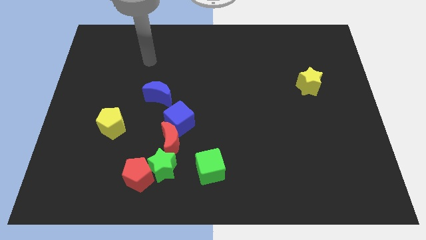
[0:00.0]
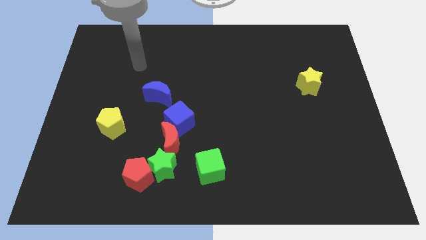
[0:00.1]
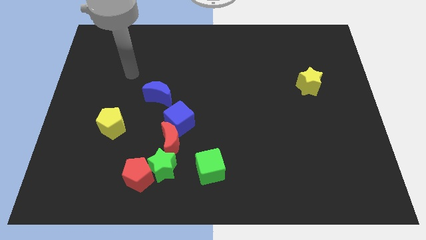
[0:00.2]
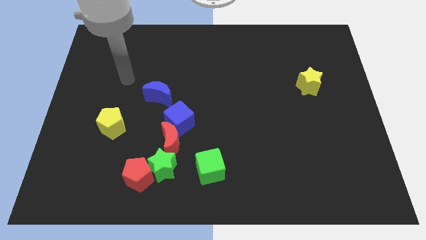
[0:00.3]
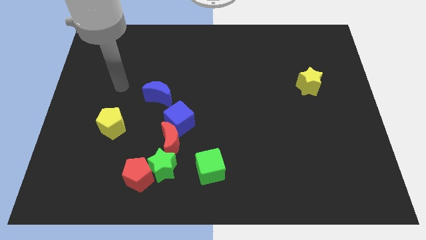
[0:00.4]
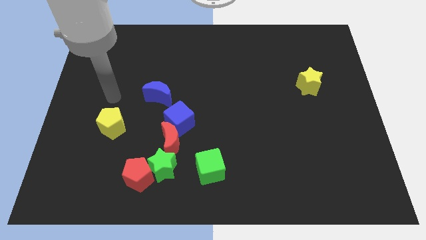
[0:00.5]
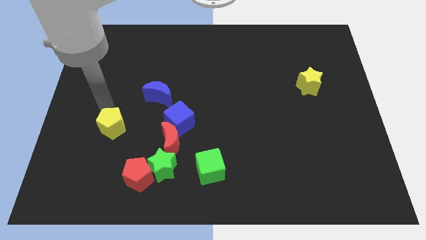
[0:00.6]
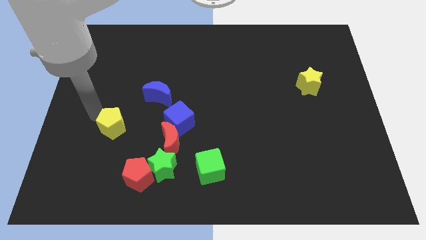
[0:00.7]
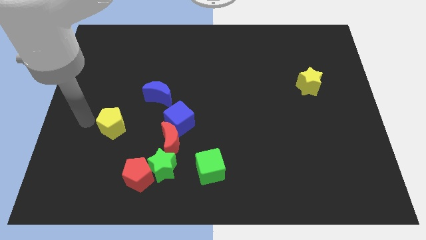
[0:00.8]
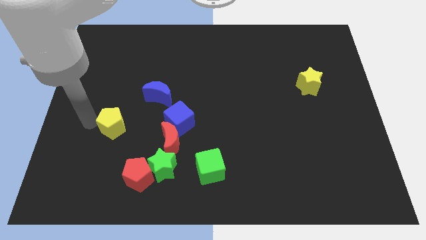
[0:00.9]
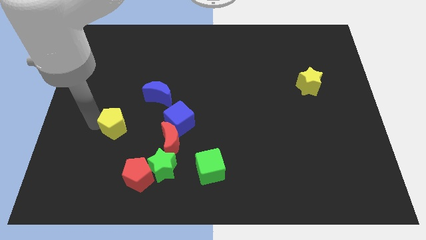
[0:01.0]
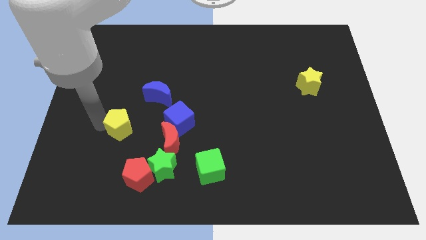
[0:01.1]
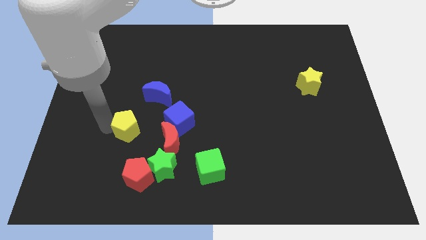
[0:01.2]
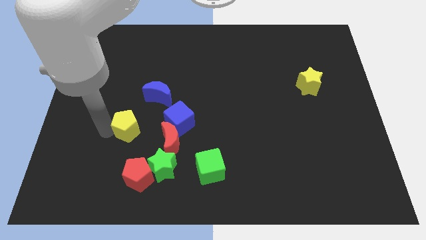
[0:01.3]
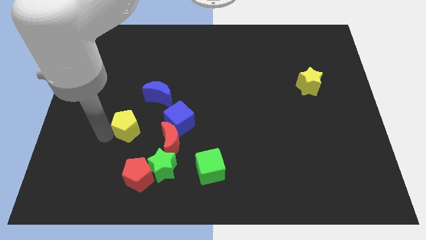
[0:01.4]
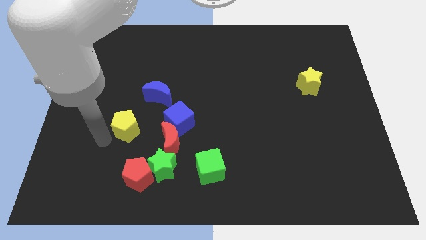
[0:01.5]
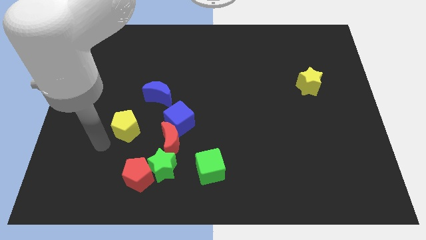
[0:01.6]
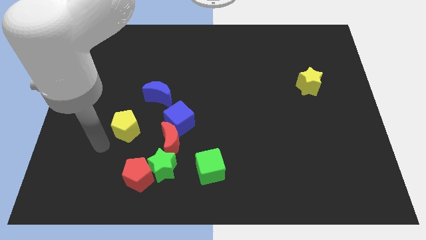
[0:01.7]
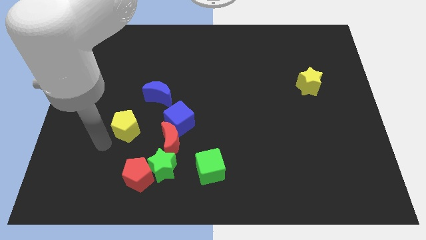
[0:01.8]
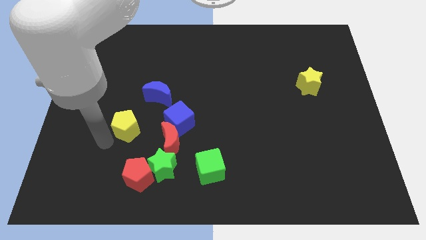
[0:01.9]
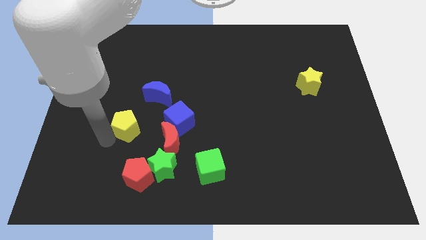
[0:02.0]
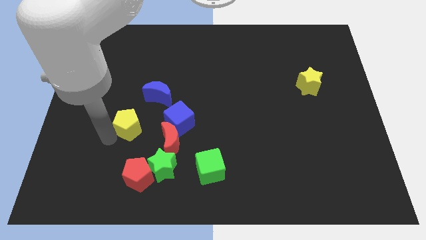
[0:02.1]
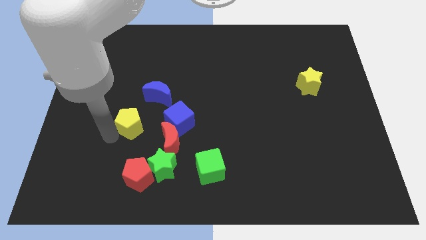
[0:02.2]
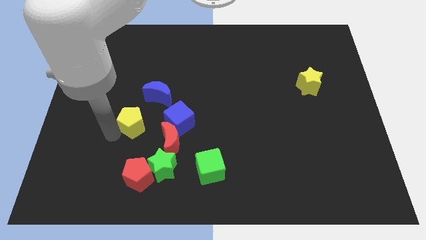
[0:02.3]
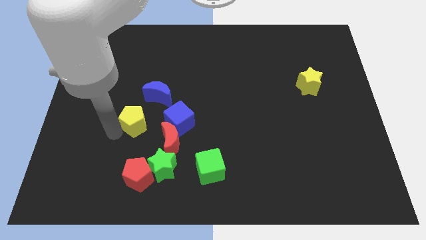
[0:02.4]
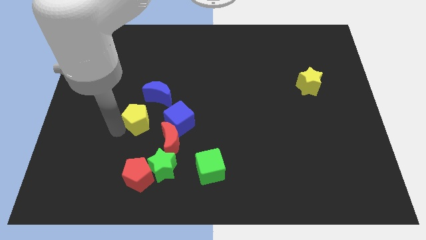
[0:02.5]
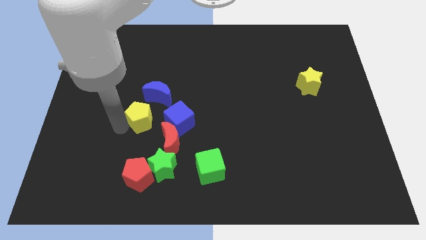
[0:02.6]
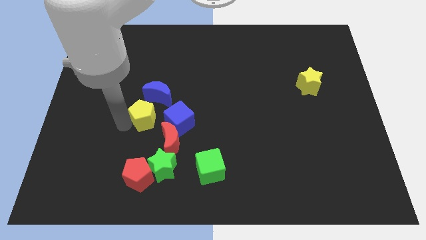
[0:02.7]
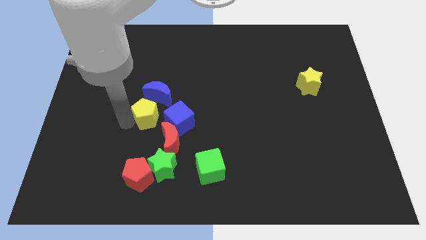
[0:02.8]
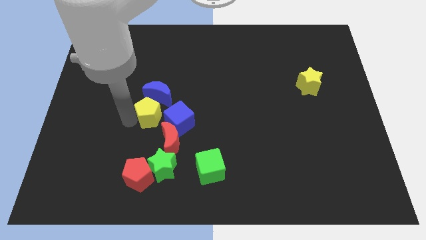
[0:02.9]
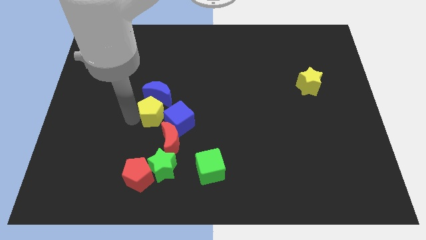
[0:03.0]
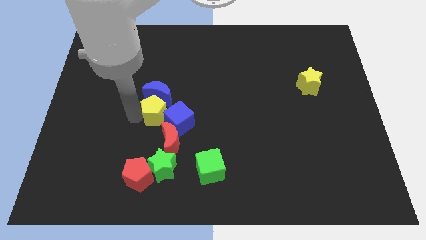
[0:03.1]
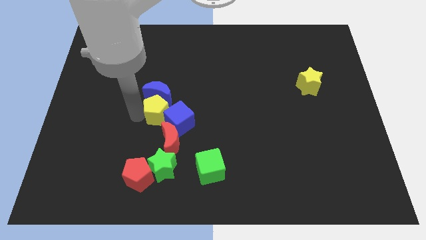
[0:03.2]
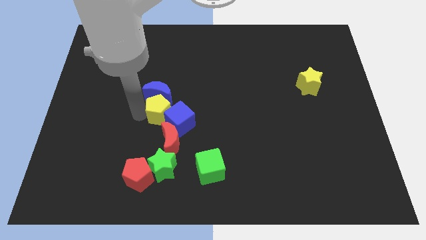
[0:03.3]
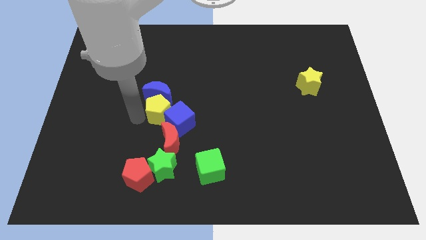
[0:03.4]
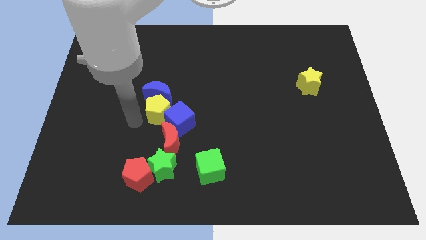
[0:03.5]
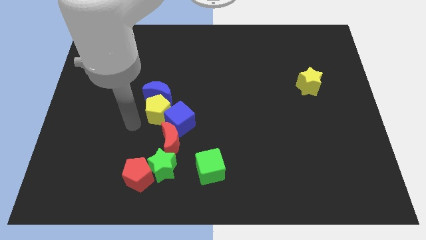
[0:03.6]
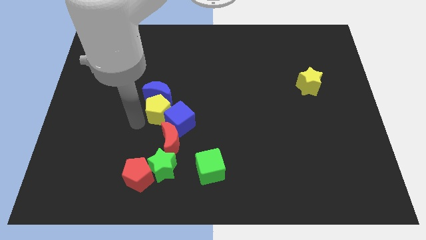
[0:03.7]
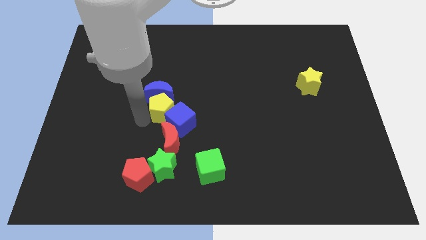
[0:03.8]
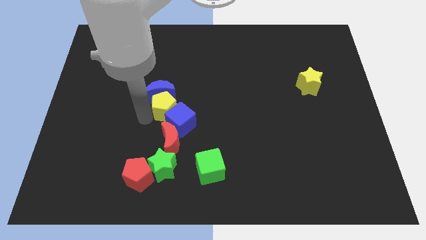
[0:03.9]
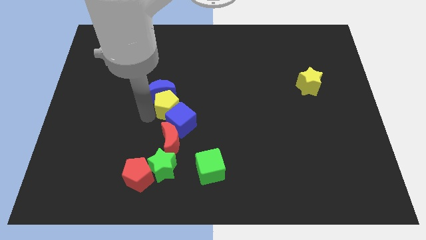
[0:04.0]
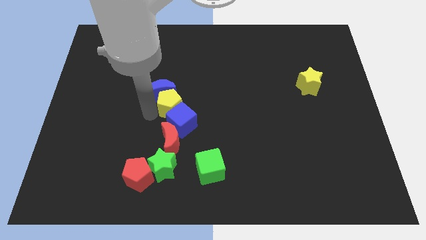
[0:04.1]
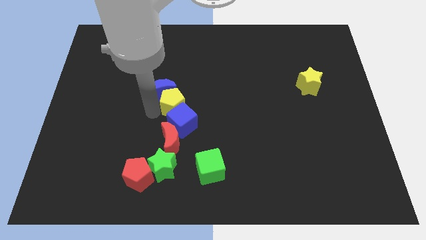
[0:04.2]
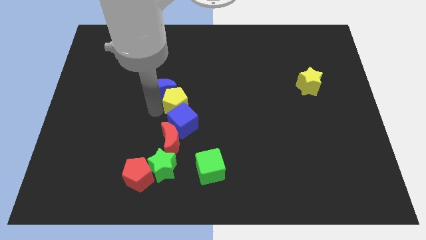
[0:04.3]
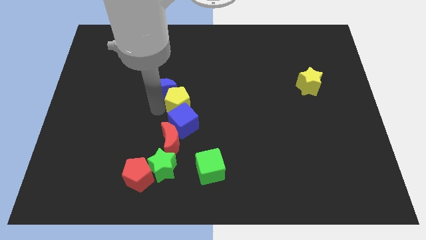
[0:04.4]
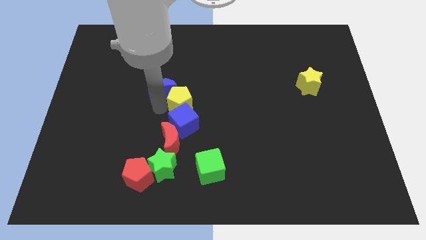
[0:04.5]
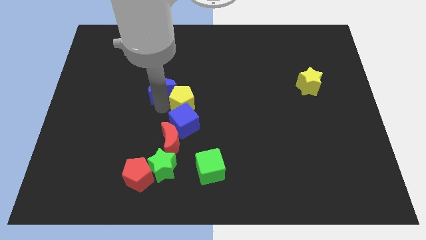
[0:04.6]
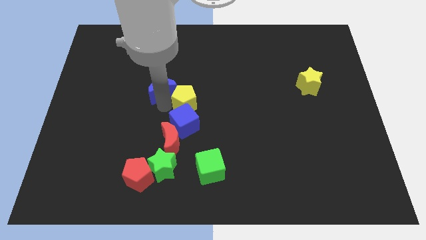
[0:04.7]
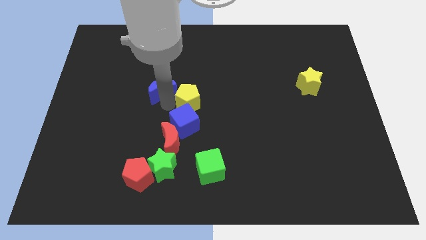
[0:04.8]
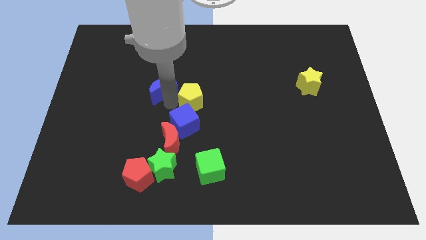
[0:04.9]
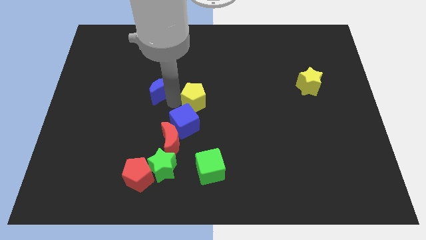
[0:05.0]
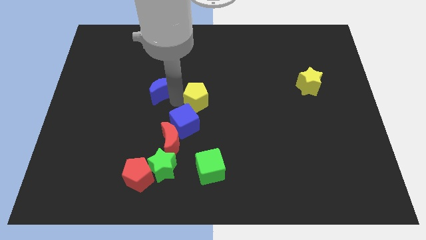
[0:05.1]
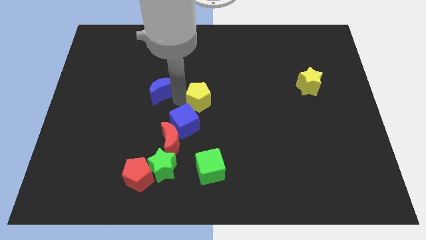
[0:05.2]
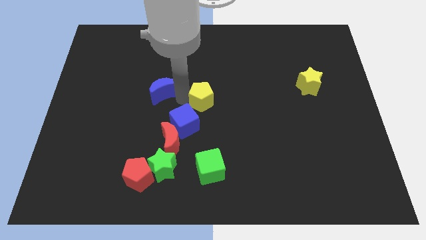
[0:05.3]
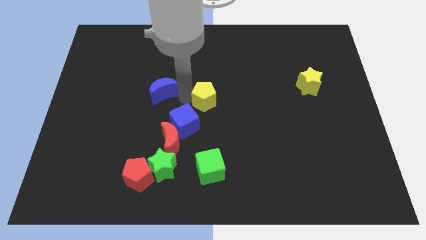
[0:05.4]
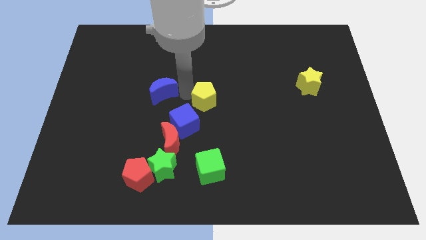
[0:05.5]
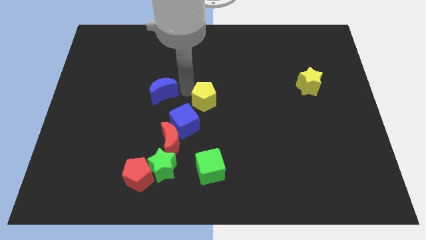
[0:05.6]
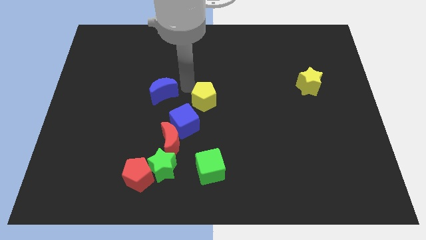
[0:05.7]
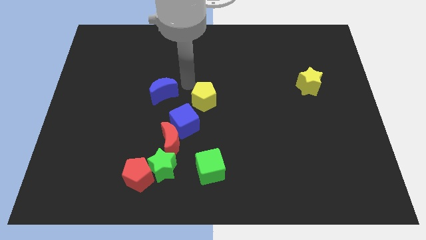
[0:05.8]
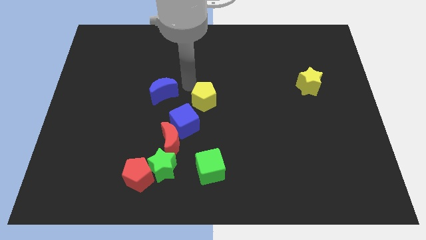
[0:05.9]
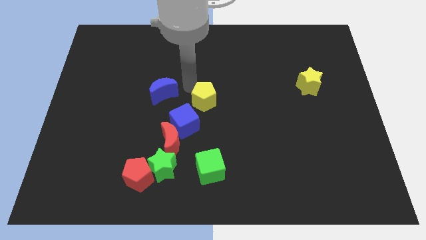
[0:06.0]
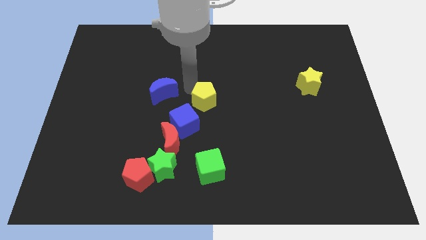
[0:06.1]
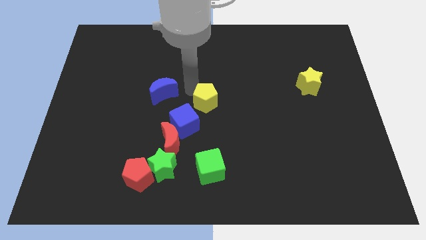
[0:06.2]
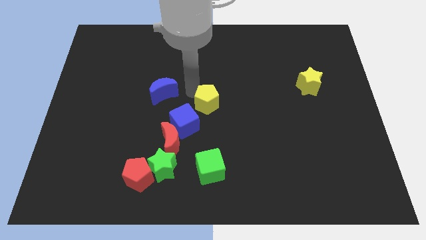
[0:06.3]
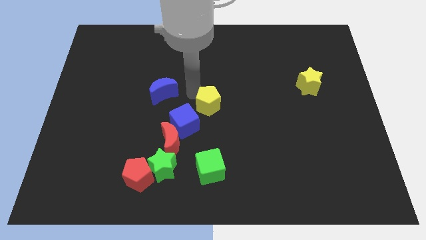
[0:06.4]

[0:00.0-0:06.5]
push the yellow pentagon right

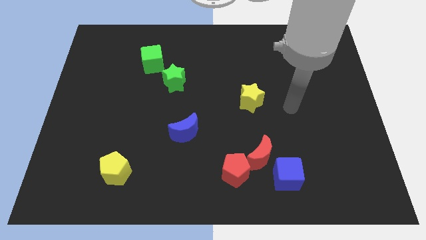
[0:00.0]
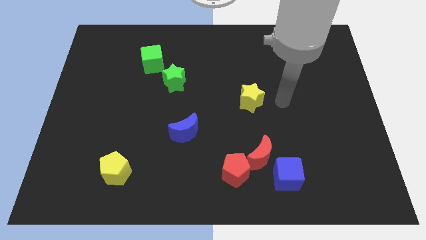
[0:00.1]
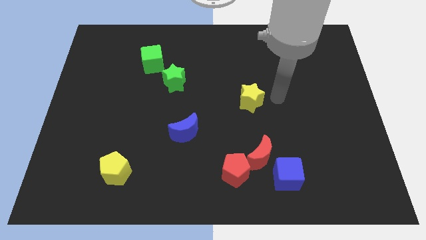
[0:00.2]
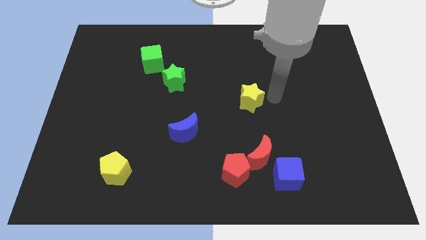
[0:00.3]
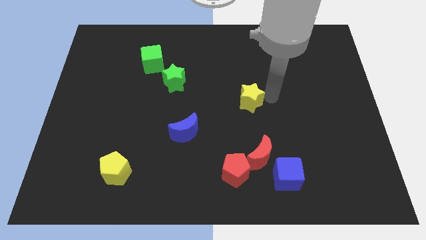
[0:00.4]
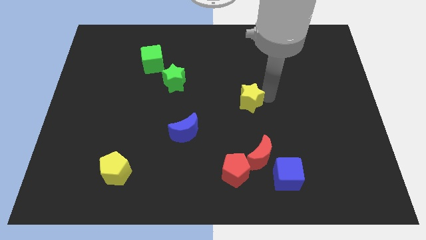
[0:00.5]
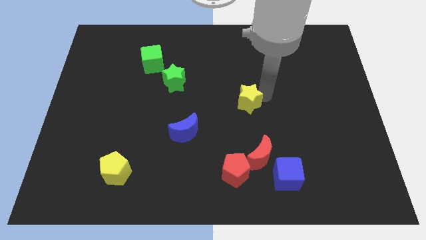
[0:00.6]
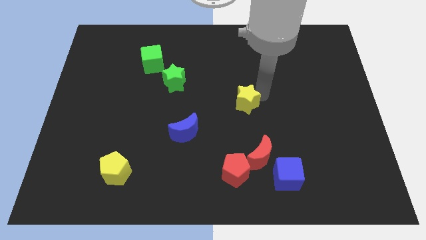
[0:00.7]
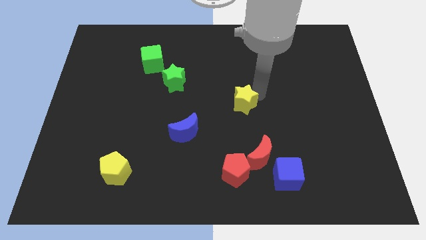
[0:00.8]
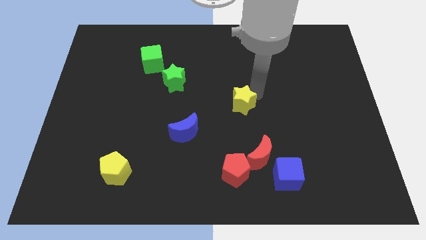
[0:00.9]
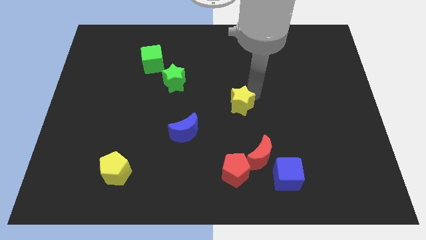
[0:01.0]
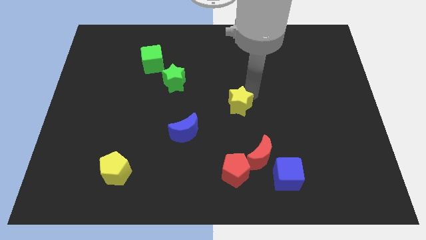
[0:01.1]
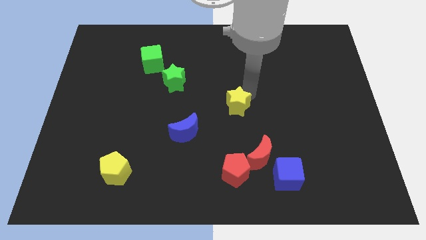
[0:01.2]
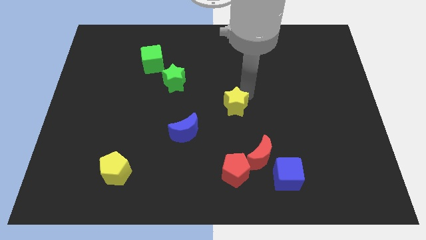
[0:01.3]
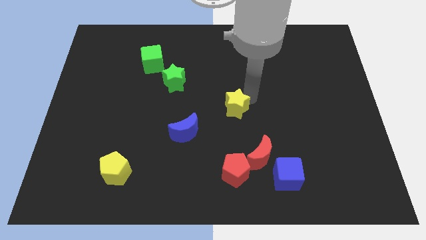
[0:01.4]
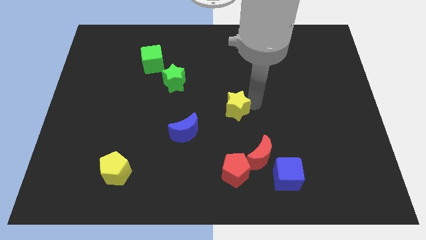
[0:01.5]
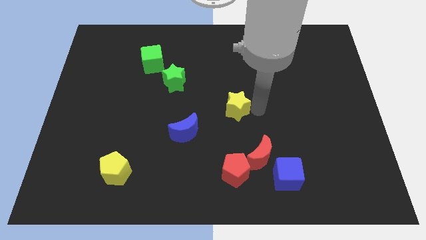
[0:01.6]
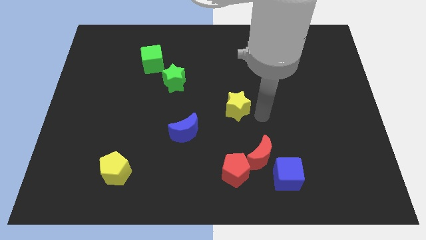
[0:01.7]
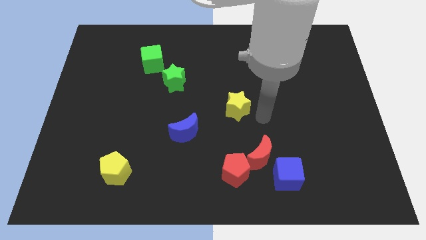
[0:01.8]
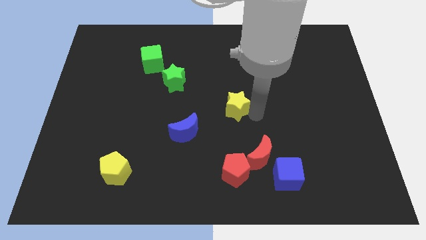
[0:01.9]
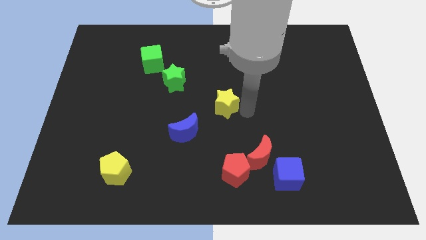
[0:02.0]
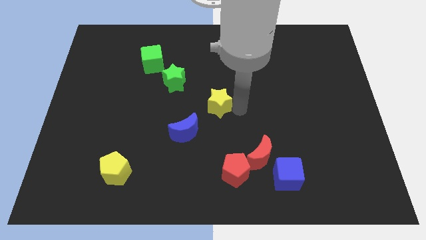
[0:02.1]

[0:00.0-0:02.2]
slightly move the yellow star left
